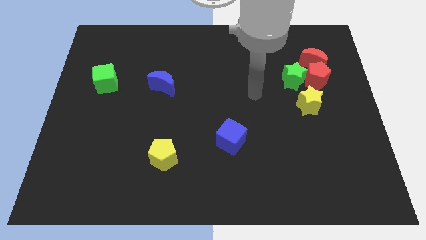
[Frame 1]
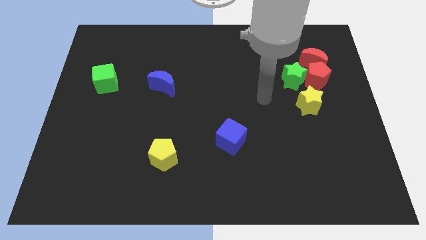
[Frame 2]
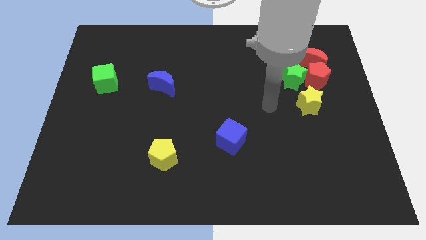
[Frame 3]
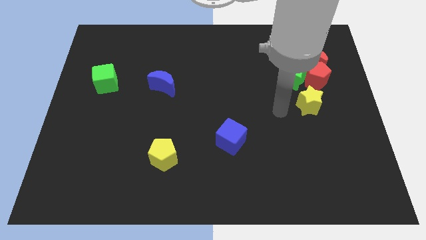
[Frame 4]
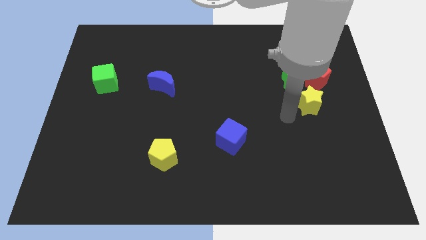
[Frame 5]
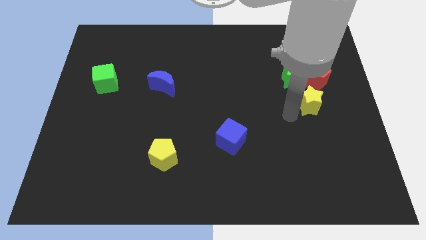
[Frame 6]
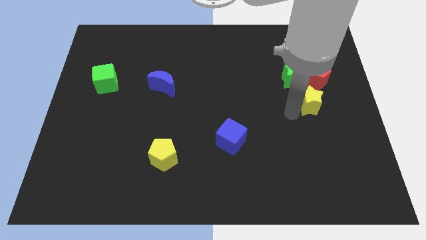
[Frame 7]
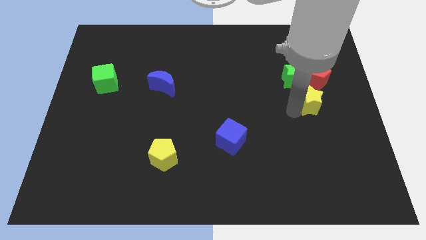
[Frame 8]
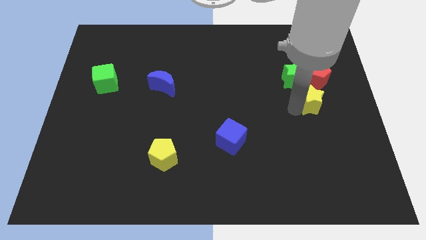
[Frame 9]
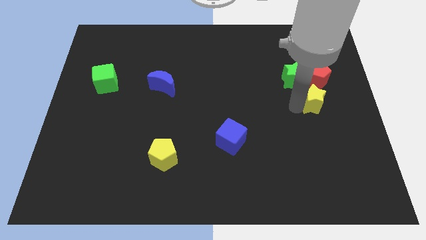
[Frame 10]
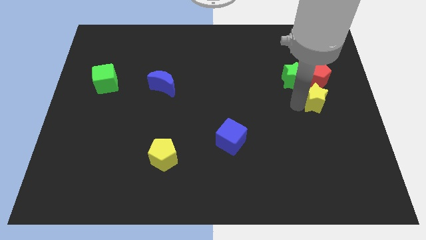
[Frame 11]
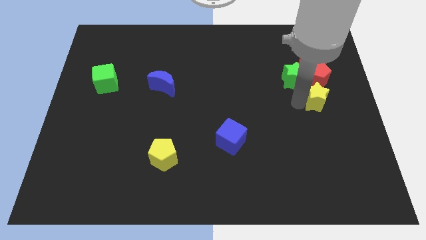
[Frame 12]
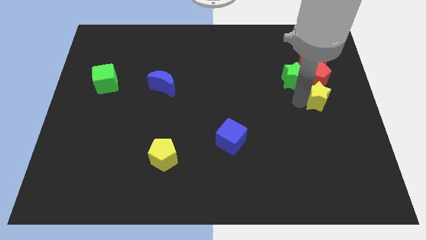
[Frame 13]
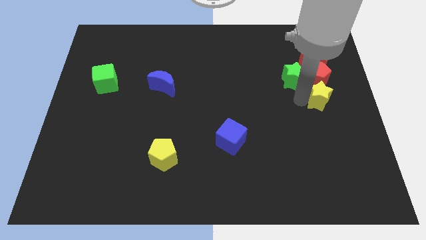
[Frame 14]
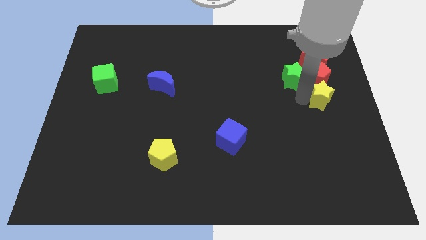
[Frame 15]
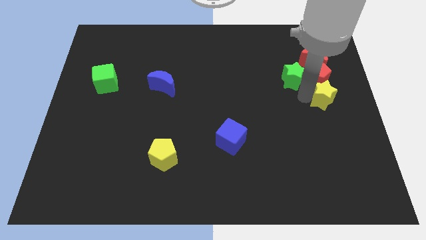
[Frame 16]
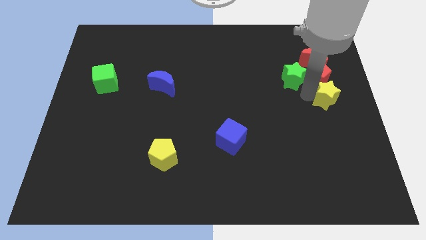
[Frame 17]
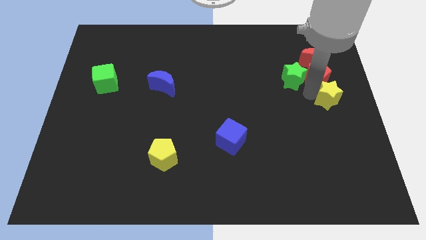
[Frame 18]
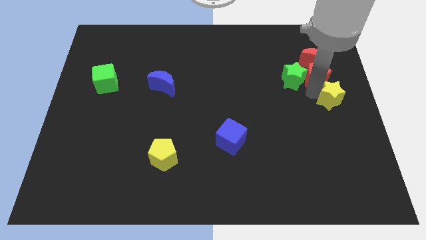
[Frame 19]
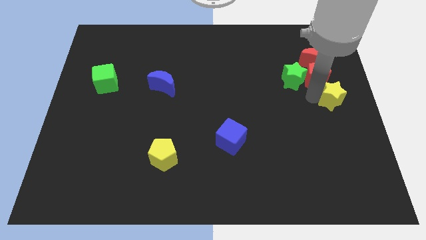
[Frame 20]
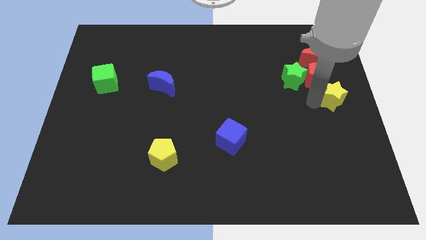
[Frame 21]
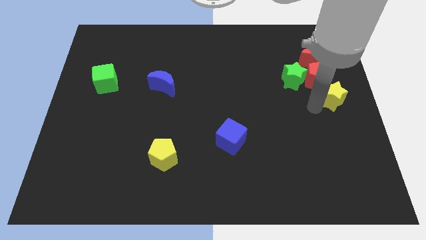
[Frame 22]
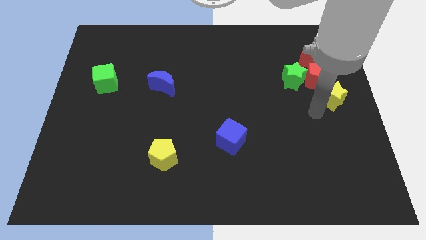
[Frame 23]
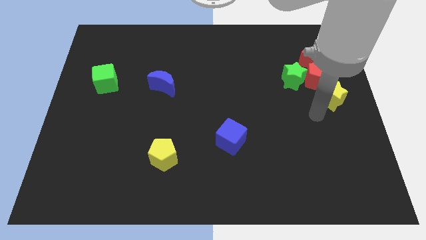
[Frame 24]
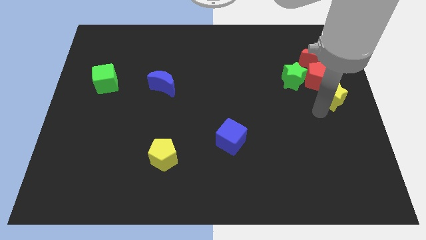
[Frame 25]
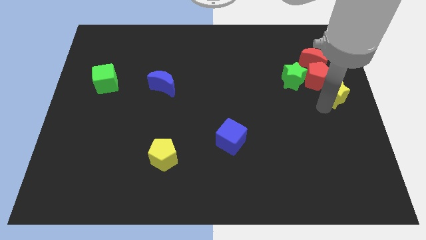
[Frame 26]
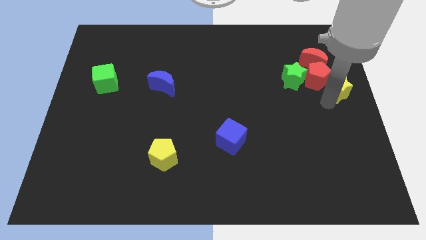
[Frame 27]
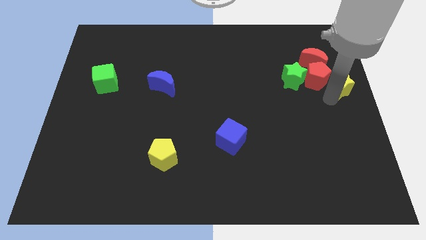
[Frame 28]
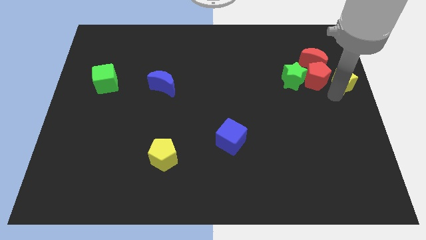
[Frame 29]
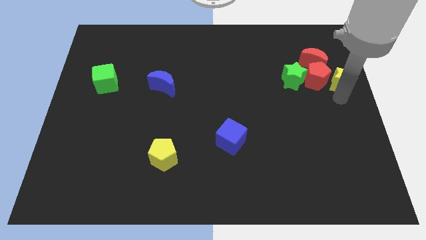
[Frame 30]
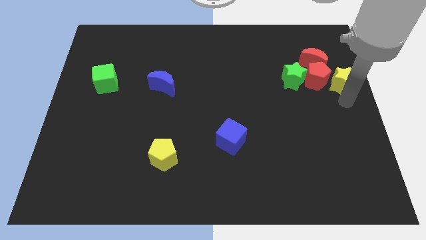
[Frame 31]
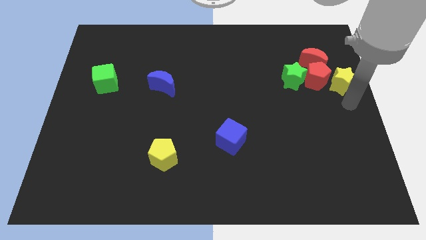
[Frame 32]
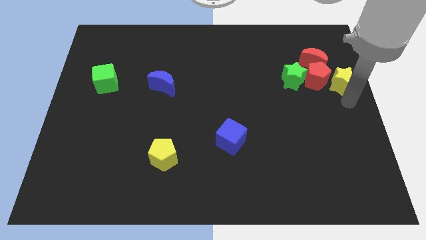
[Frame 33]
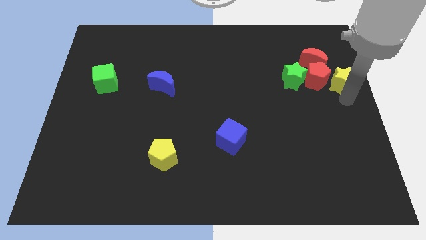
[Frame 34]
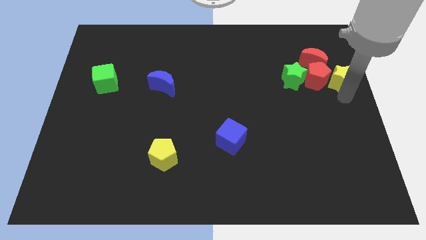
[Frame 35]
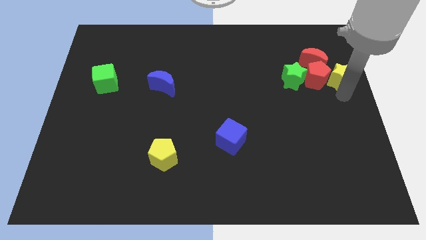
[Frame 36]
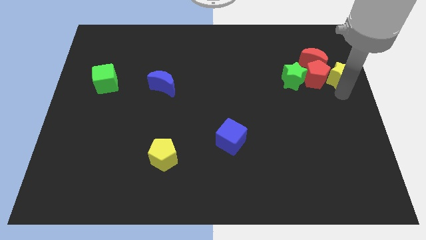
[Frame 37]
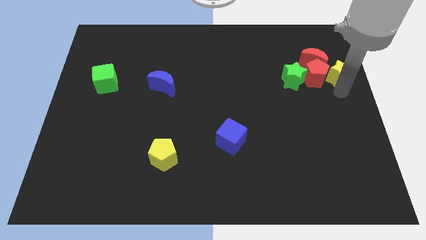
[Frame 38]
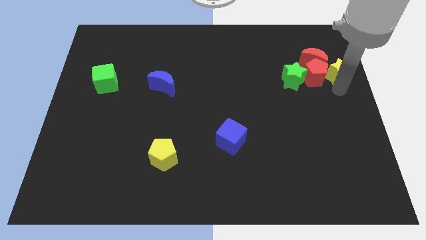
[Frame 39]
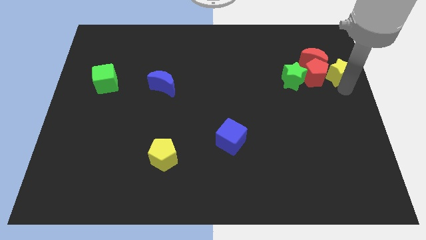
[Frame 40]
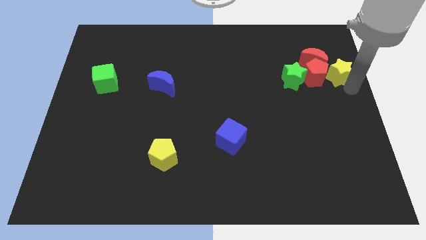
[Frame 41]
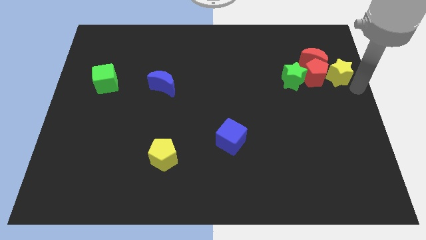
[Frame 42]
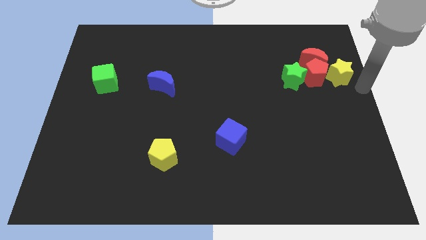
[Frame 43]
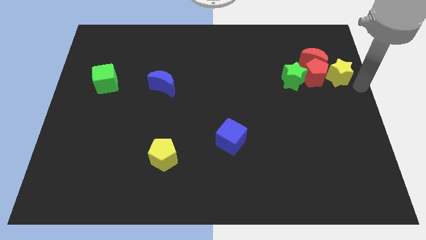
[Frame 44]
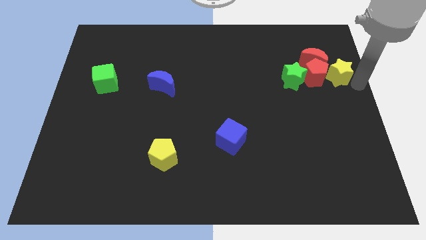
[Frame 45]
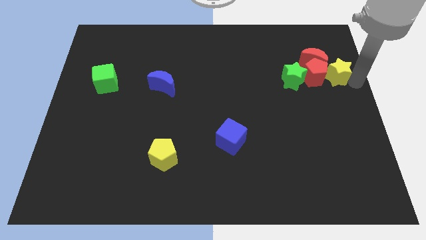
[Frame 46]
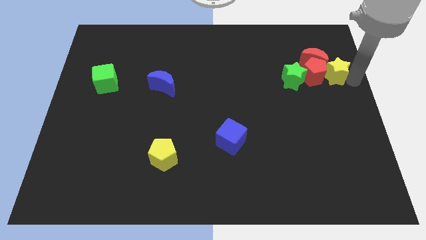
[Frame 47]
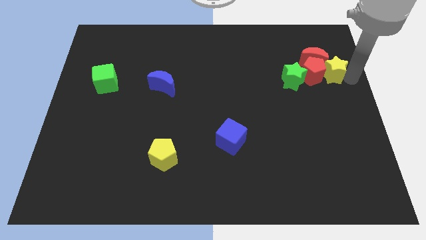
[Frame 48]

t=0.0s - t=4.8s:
slide the yellow star close to the red moon

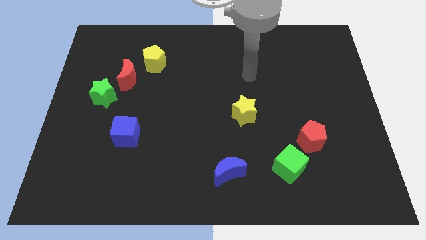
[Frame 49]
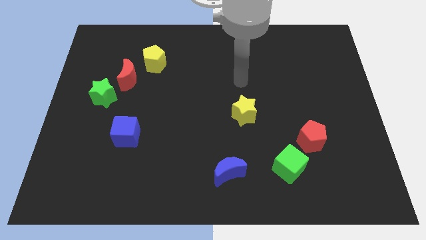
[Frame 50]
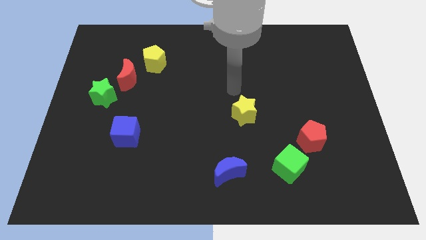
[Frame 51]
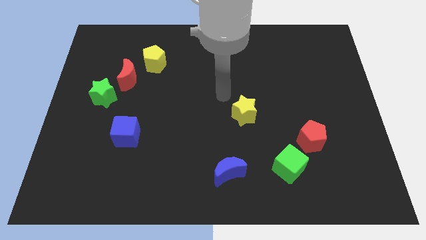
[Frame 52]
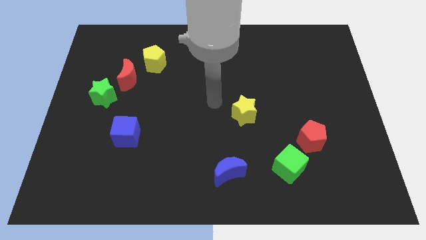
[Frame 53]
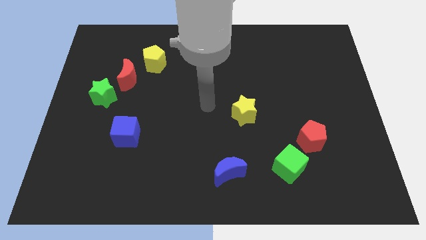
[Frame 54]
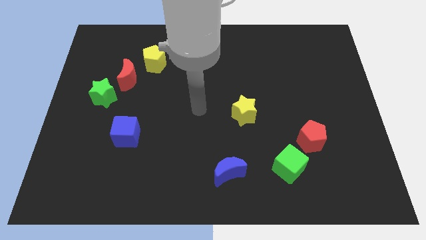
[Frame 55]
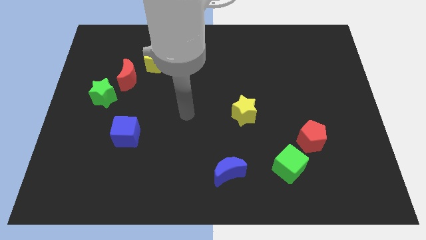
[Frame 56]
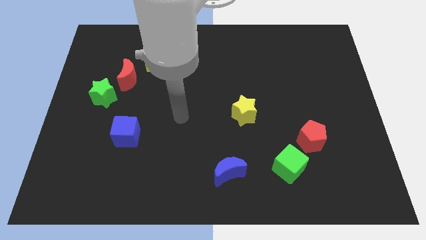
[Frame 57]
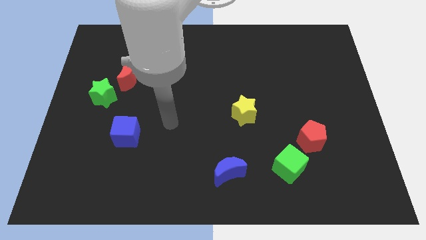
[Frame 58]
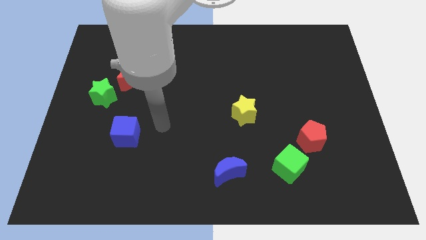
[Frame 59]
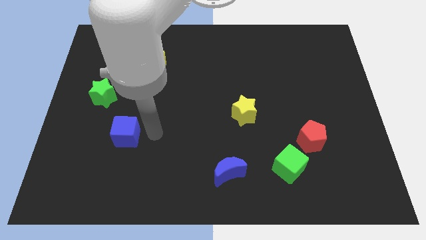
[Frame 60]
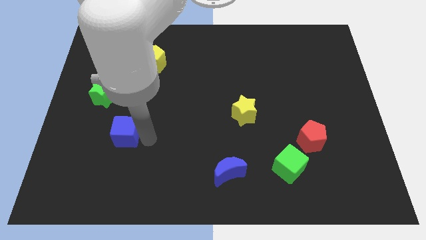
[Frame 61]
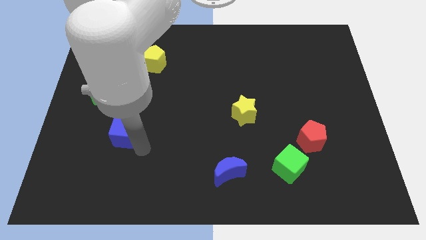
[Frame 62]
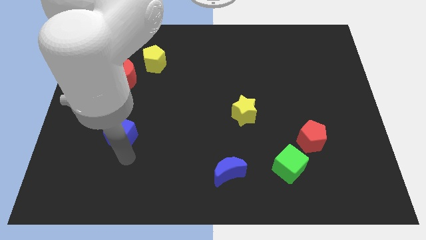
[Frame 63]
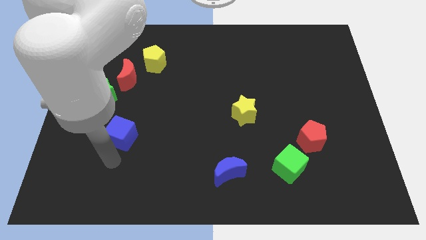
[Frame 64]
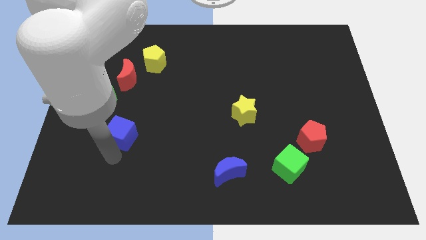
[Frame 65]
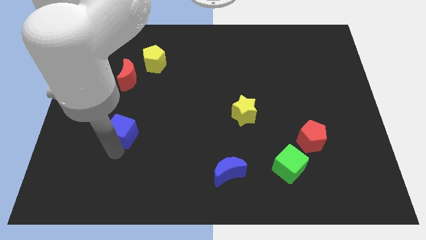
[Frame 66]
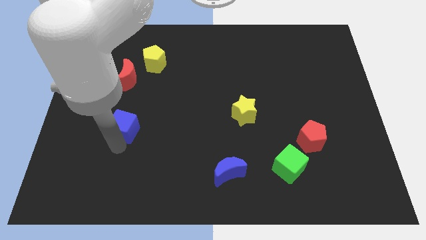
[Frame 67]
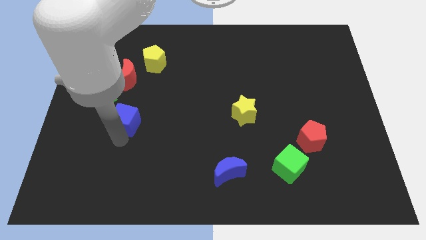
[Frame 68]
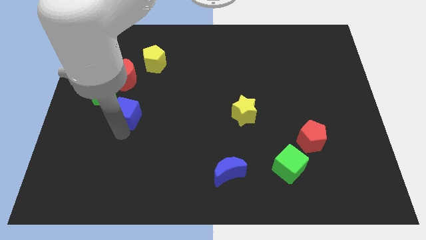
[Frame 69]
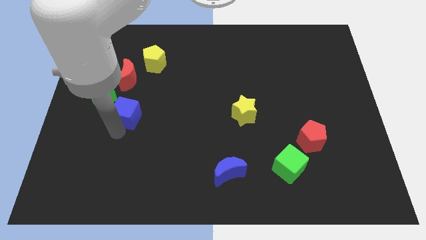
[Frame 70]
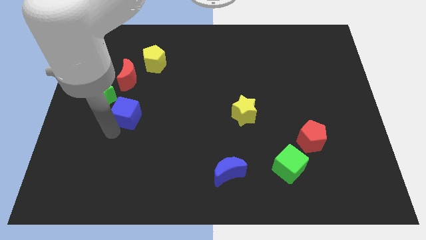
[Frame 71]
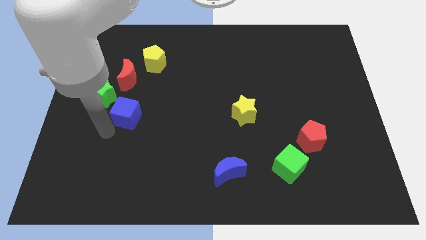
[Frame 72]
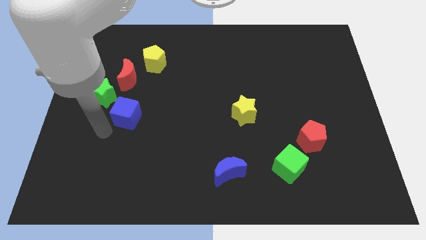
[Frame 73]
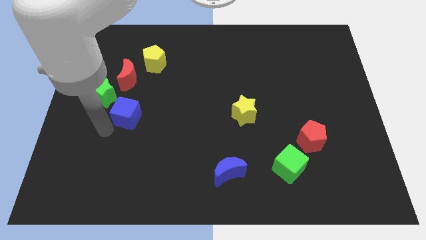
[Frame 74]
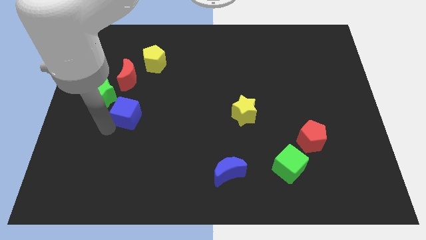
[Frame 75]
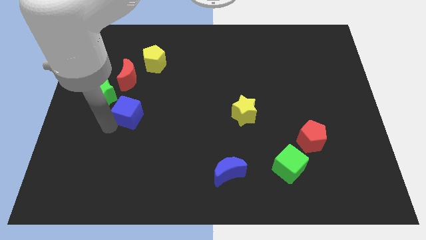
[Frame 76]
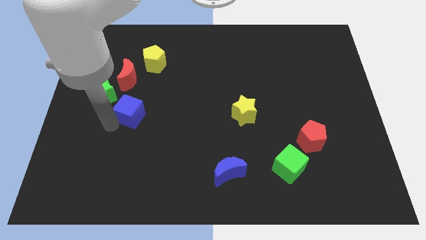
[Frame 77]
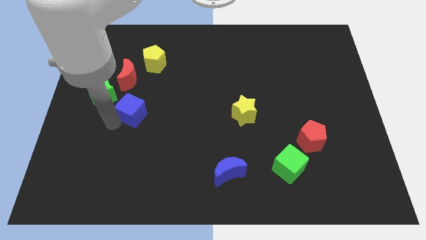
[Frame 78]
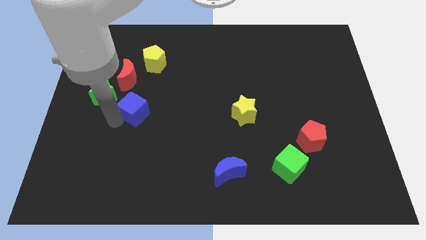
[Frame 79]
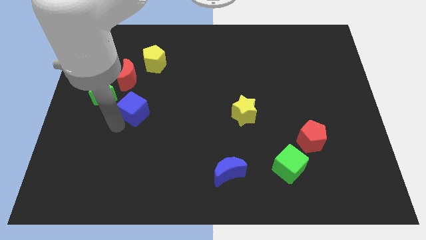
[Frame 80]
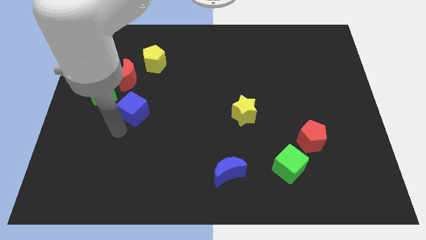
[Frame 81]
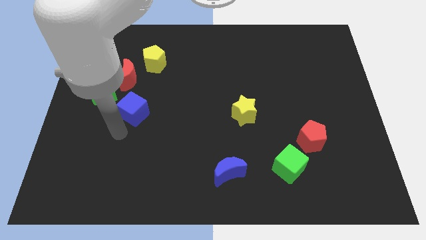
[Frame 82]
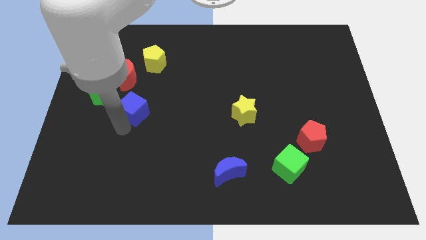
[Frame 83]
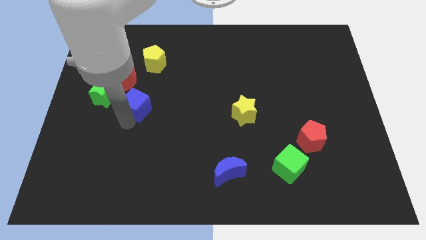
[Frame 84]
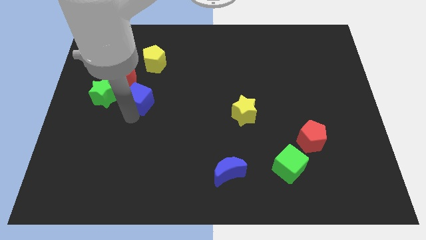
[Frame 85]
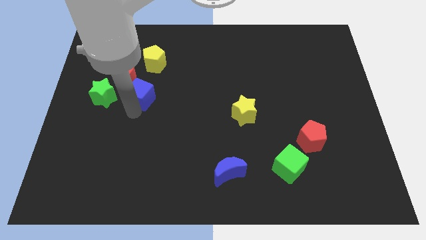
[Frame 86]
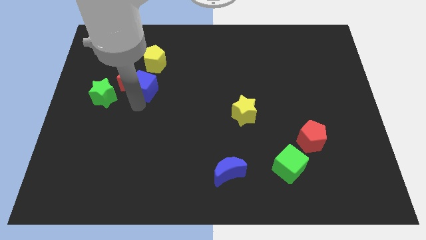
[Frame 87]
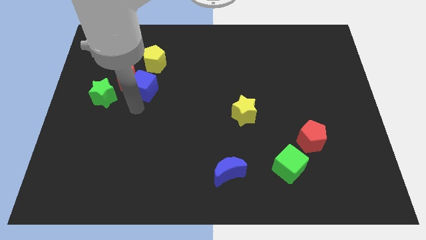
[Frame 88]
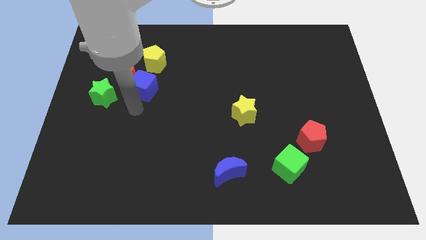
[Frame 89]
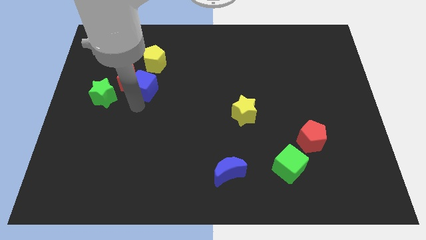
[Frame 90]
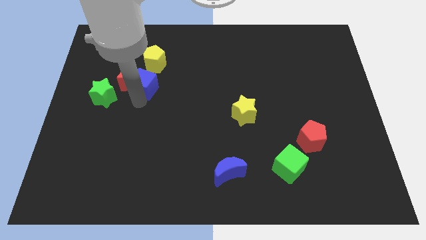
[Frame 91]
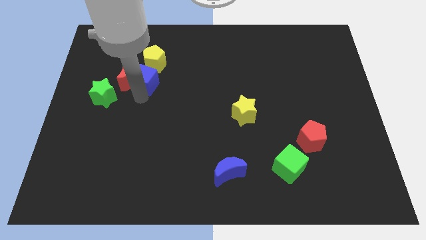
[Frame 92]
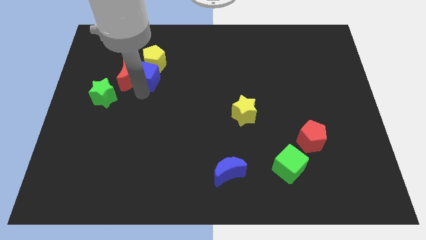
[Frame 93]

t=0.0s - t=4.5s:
put the blue cube to the yellow pentagon
